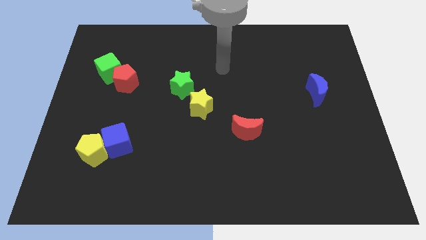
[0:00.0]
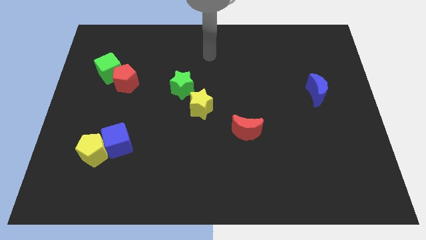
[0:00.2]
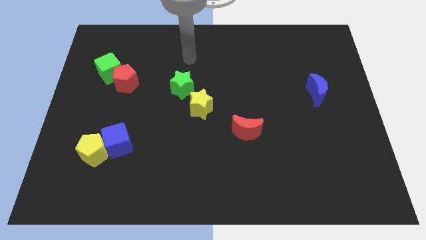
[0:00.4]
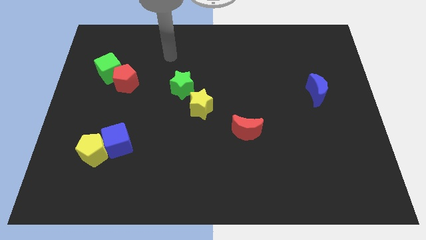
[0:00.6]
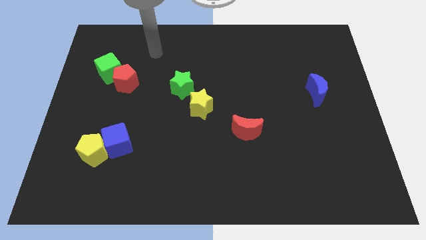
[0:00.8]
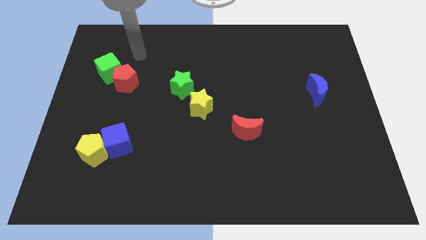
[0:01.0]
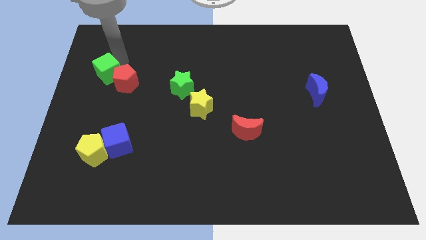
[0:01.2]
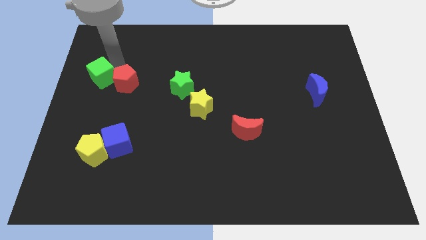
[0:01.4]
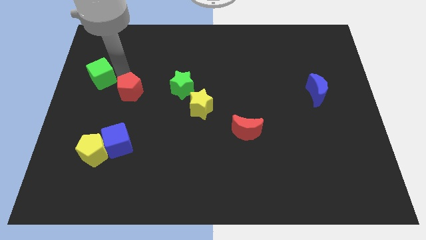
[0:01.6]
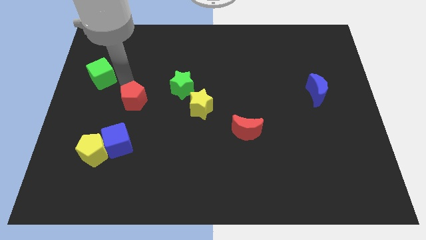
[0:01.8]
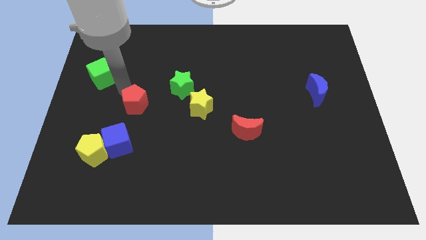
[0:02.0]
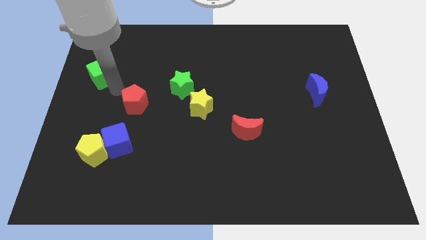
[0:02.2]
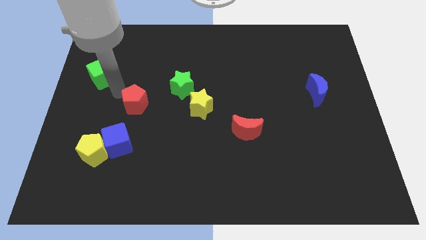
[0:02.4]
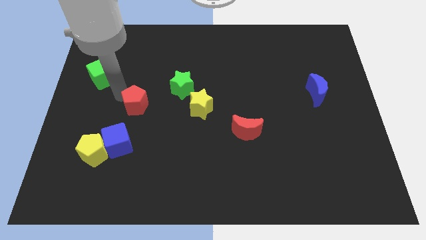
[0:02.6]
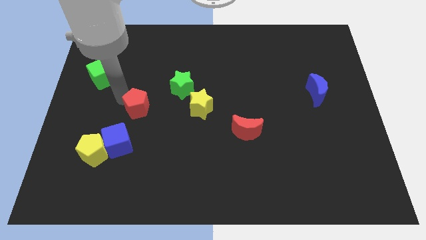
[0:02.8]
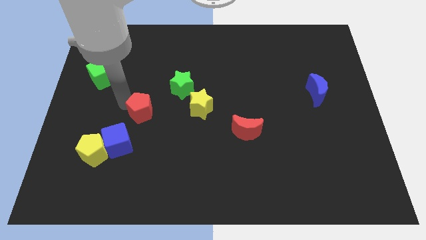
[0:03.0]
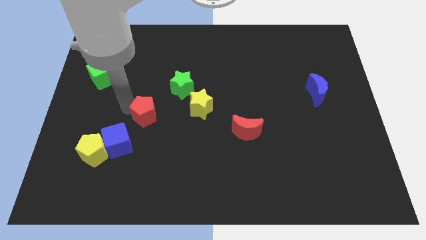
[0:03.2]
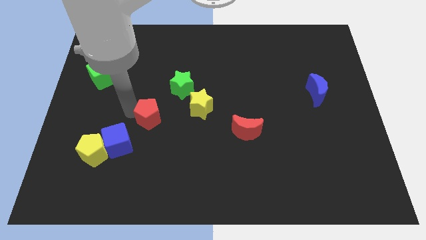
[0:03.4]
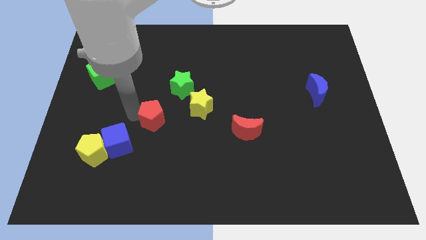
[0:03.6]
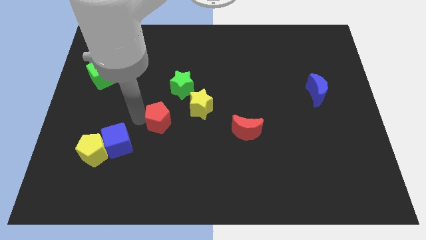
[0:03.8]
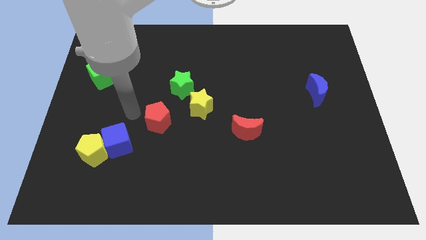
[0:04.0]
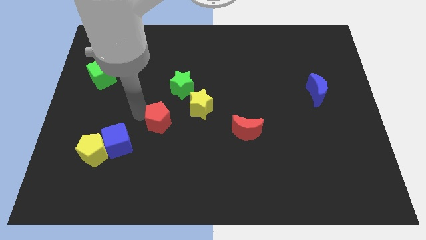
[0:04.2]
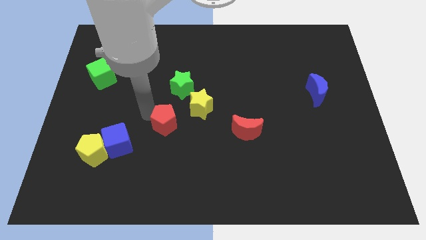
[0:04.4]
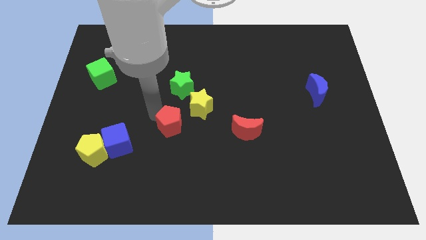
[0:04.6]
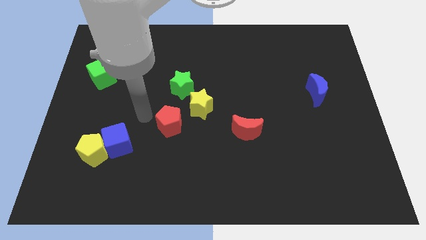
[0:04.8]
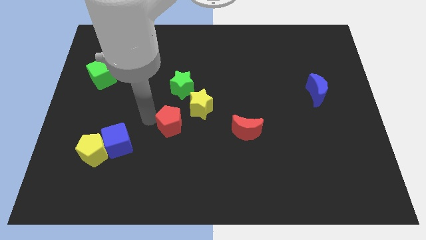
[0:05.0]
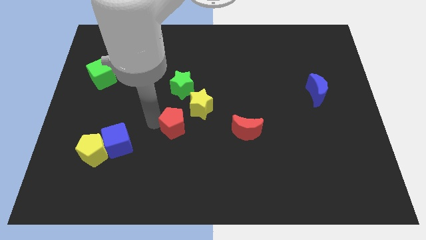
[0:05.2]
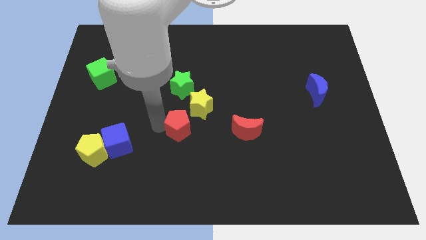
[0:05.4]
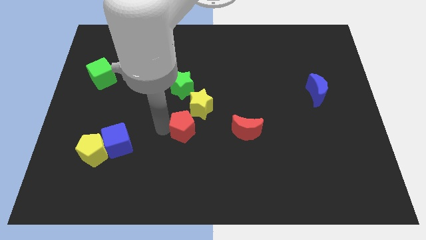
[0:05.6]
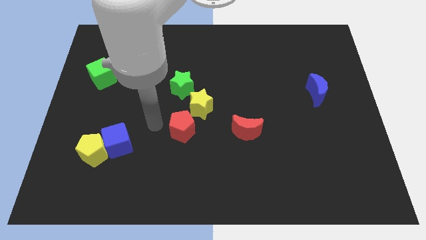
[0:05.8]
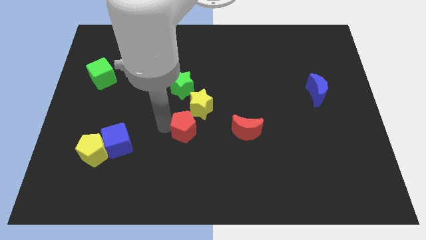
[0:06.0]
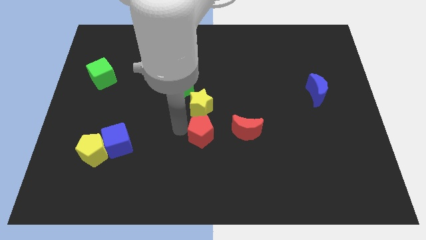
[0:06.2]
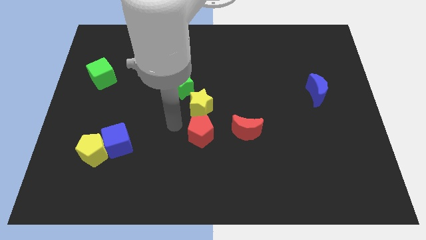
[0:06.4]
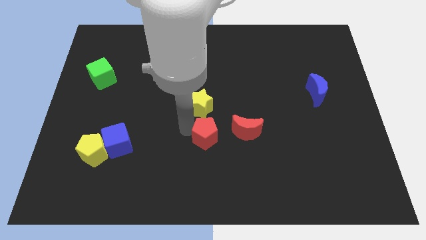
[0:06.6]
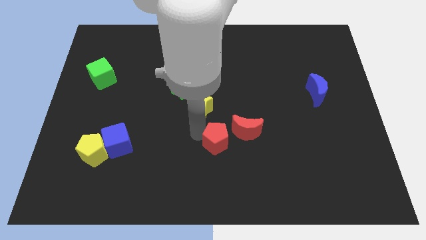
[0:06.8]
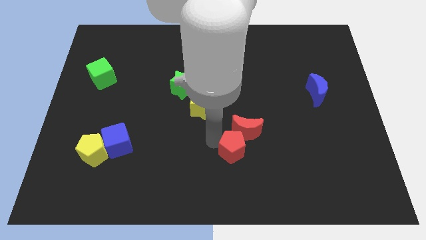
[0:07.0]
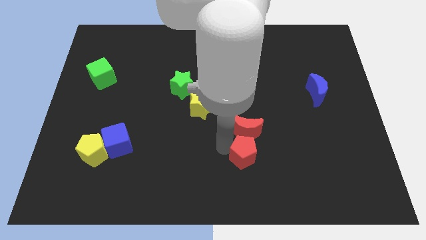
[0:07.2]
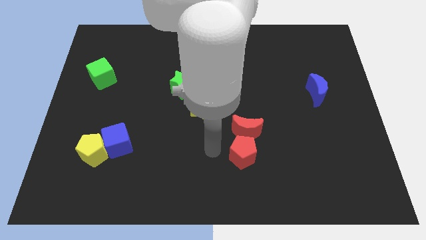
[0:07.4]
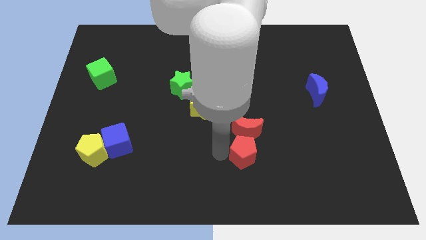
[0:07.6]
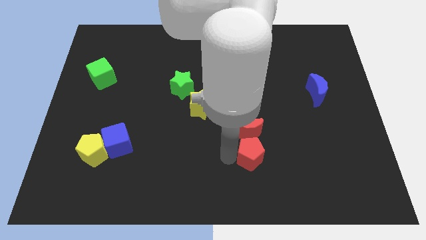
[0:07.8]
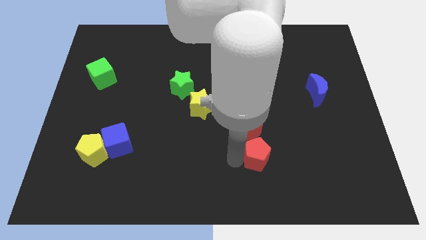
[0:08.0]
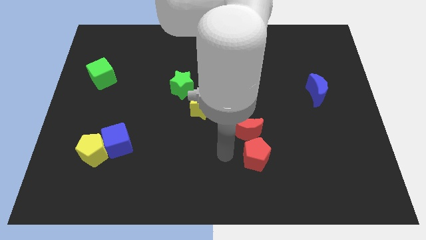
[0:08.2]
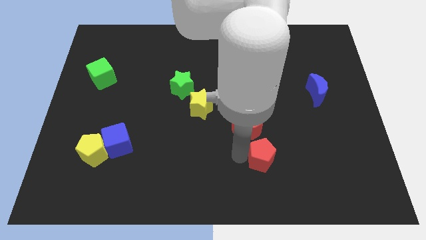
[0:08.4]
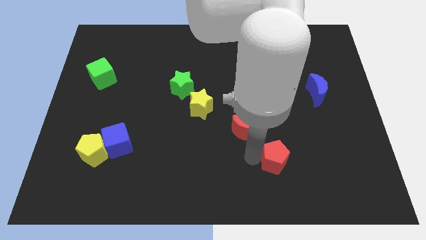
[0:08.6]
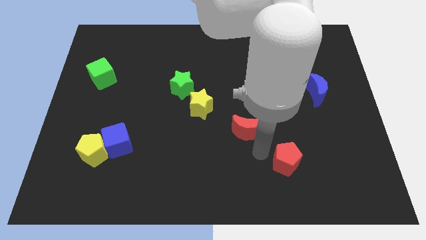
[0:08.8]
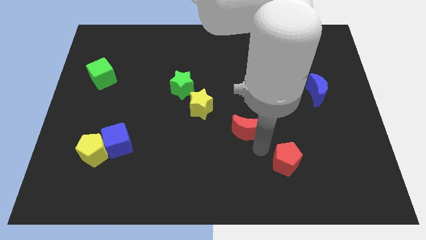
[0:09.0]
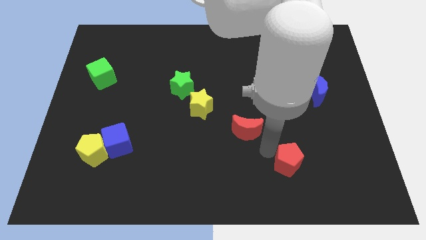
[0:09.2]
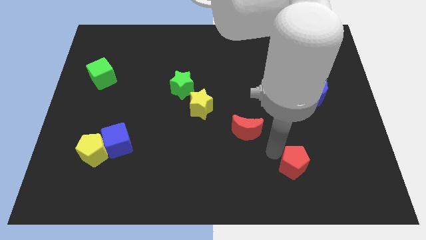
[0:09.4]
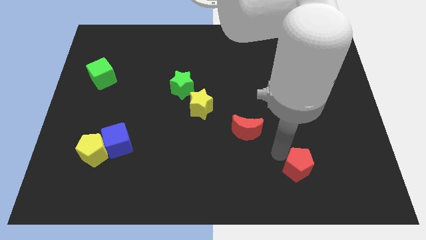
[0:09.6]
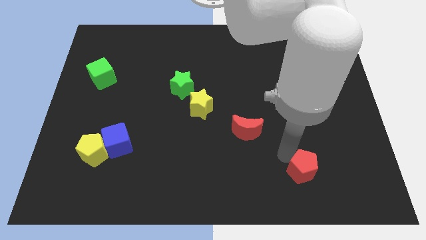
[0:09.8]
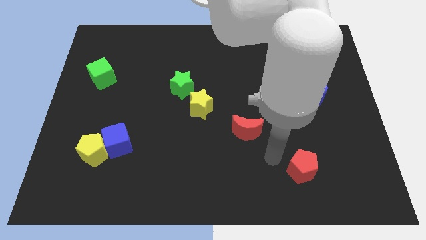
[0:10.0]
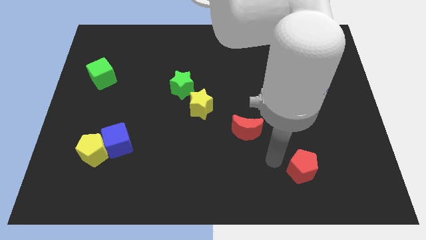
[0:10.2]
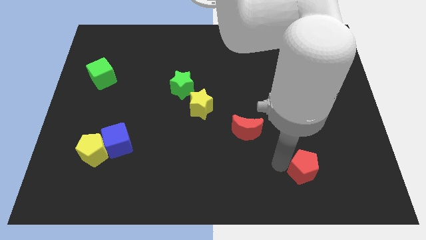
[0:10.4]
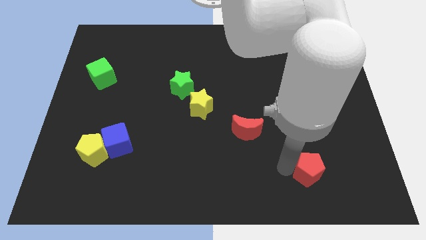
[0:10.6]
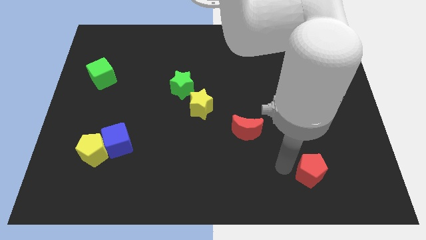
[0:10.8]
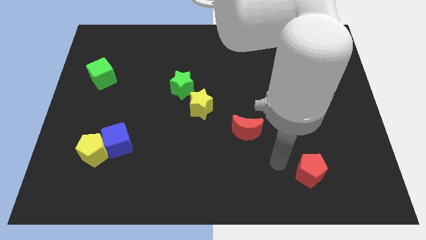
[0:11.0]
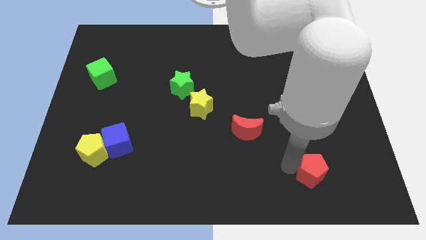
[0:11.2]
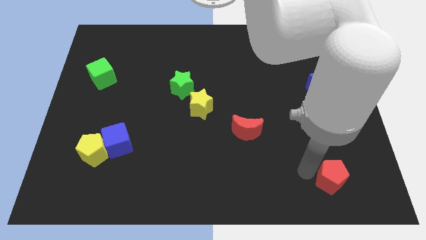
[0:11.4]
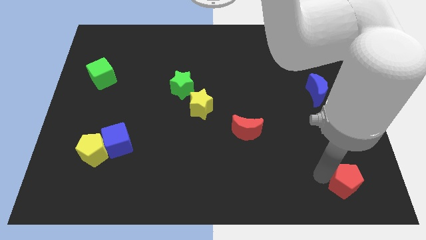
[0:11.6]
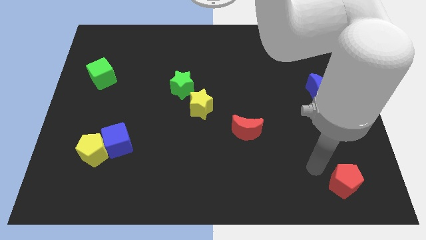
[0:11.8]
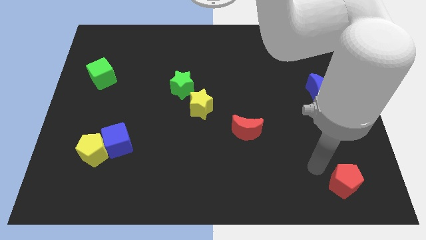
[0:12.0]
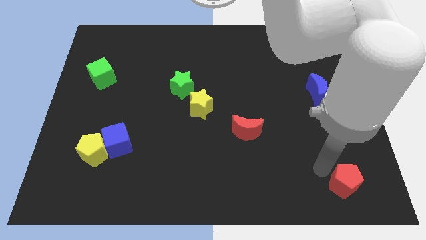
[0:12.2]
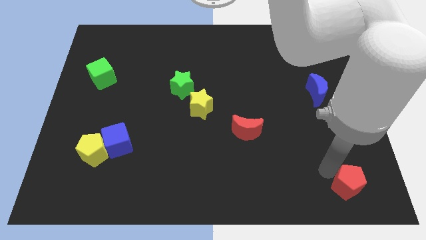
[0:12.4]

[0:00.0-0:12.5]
put the red pentagon to the lower right corner

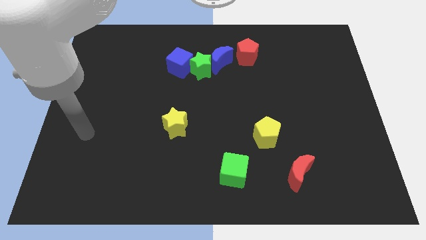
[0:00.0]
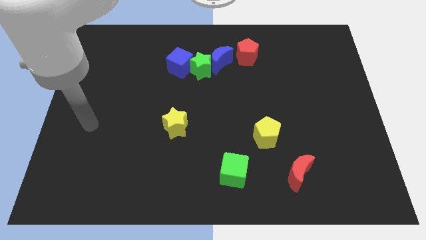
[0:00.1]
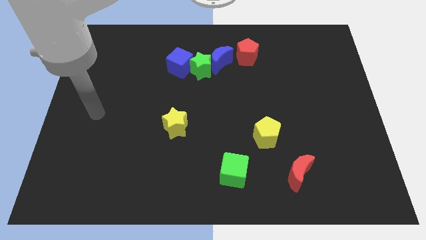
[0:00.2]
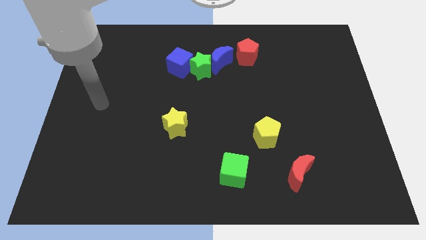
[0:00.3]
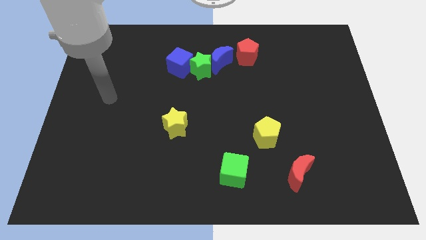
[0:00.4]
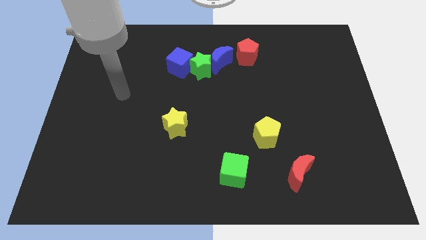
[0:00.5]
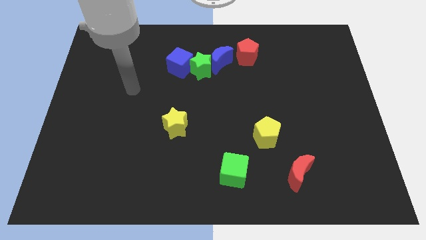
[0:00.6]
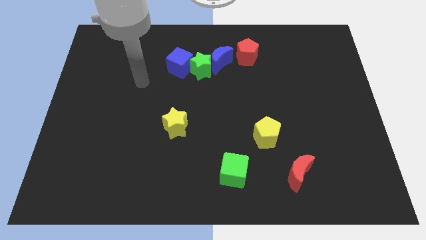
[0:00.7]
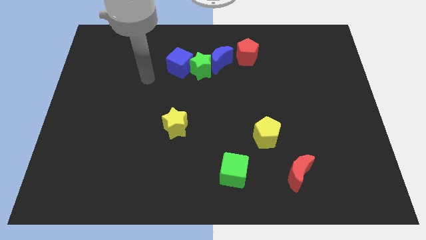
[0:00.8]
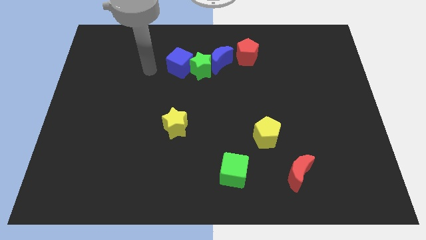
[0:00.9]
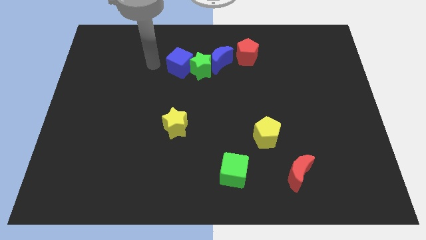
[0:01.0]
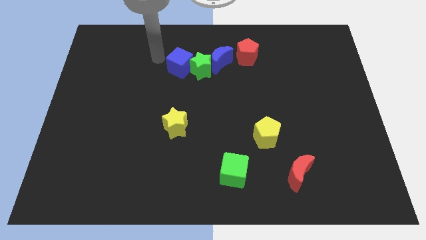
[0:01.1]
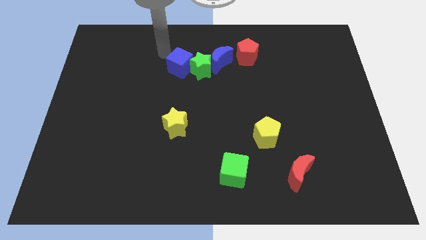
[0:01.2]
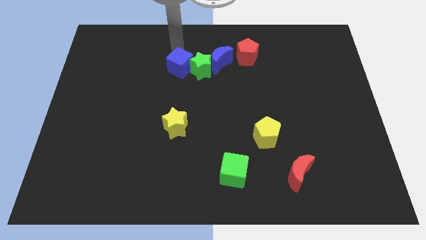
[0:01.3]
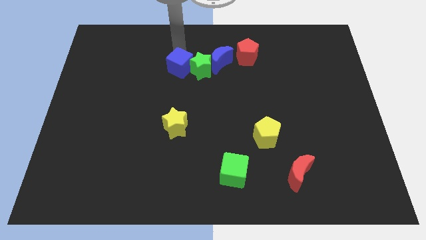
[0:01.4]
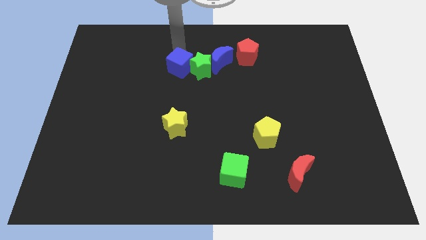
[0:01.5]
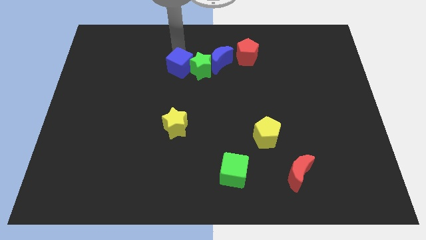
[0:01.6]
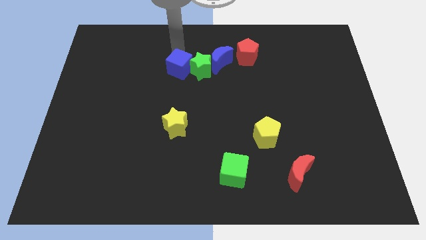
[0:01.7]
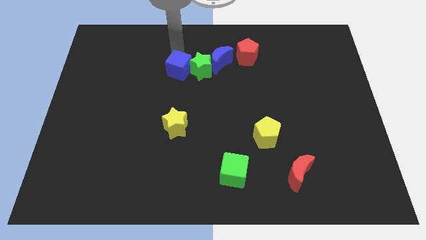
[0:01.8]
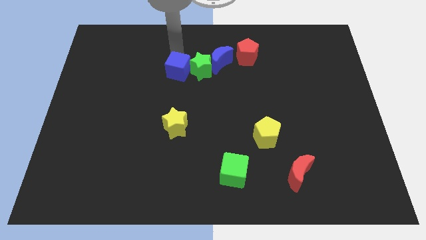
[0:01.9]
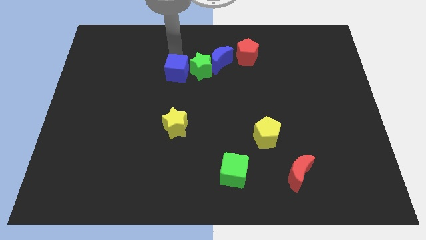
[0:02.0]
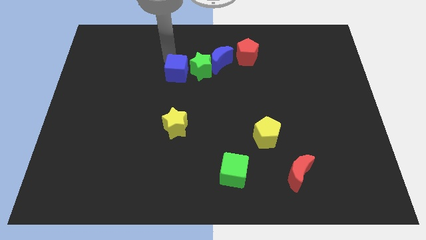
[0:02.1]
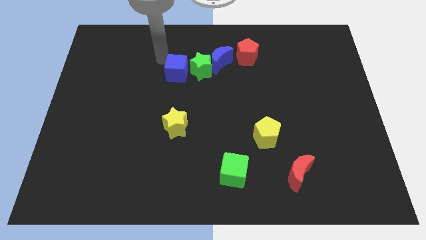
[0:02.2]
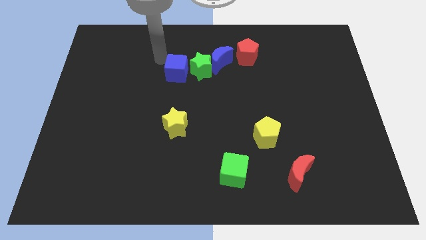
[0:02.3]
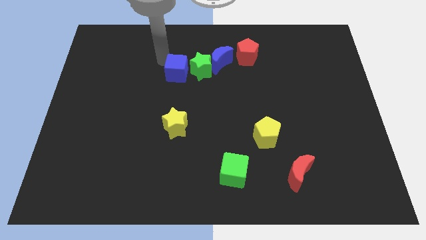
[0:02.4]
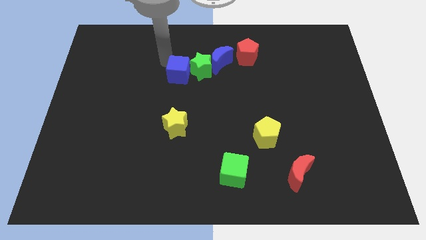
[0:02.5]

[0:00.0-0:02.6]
push the blue cube to the middle
